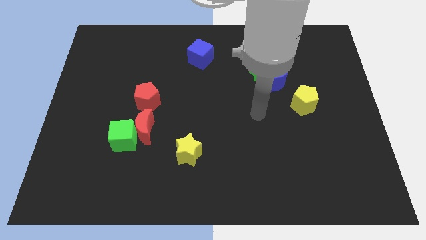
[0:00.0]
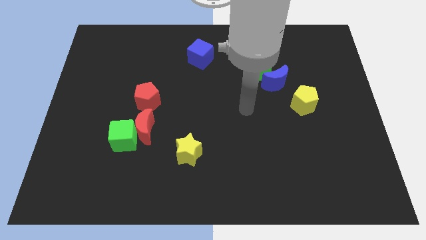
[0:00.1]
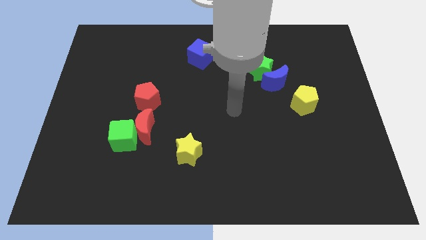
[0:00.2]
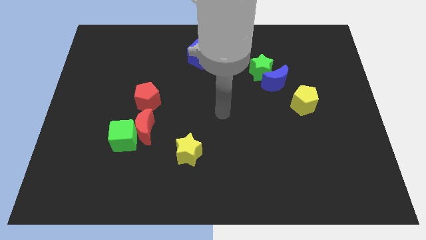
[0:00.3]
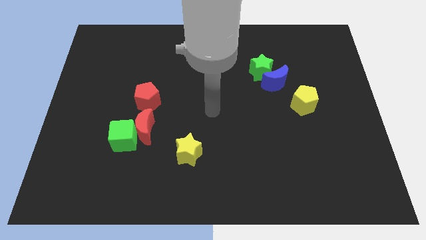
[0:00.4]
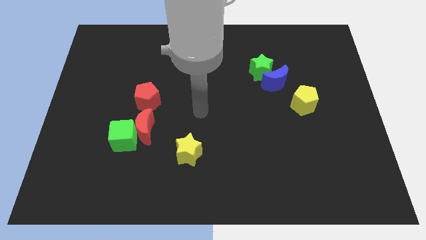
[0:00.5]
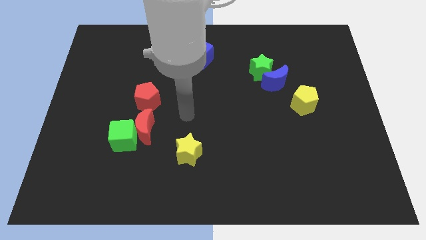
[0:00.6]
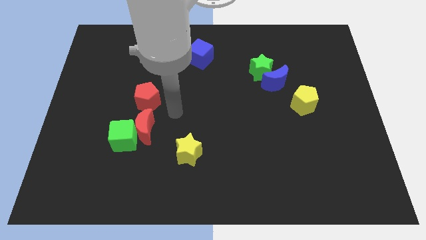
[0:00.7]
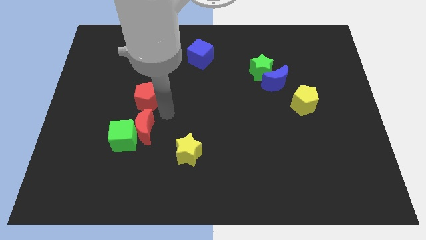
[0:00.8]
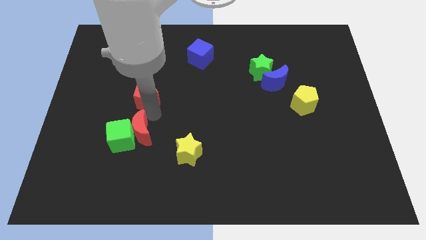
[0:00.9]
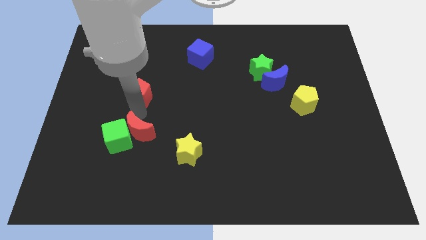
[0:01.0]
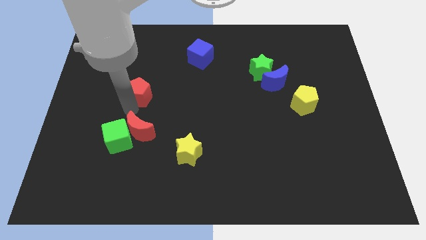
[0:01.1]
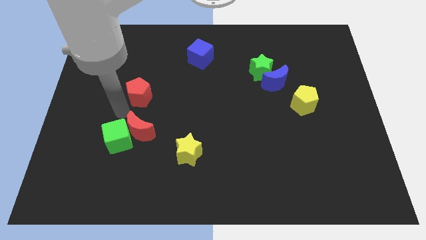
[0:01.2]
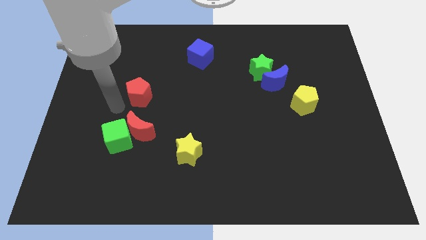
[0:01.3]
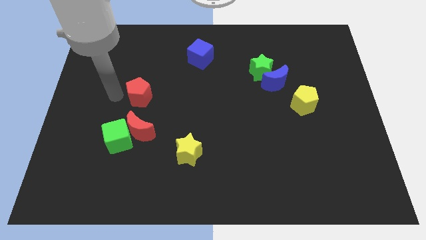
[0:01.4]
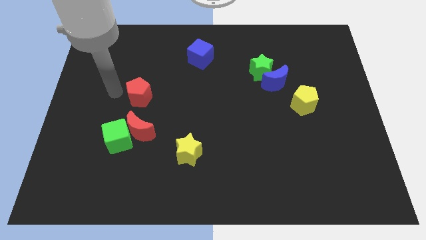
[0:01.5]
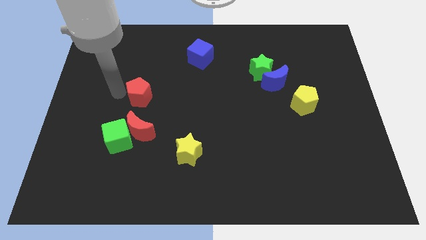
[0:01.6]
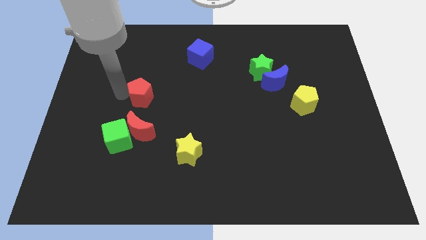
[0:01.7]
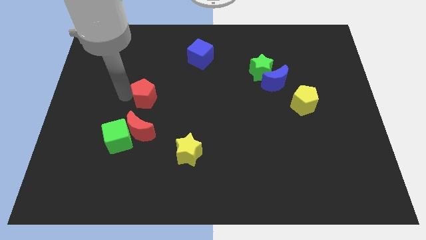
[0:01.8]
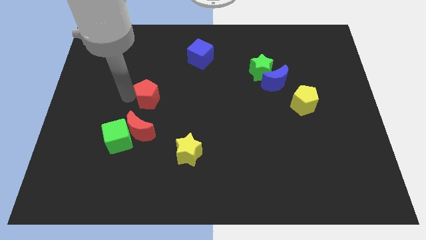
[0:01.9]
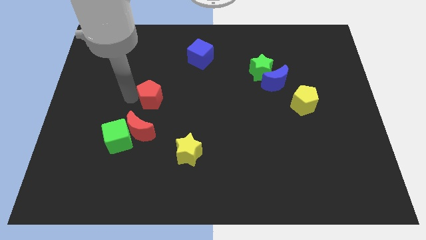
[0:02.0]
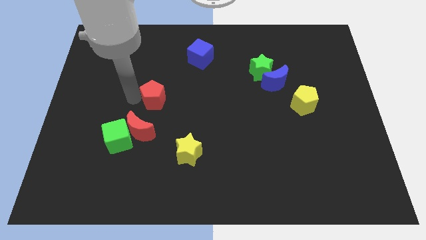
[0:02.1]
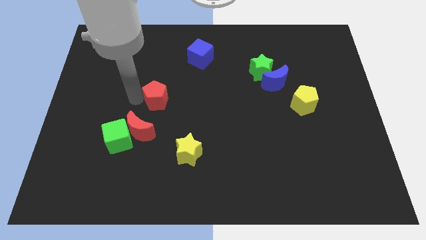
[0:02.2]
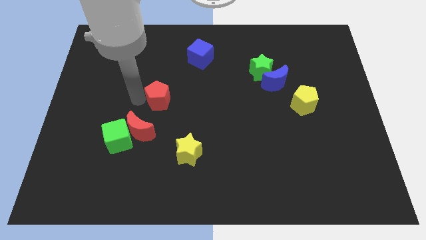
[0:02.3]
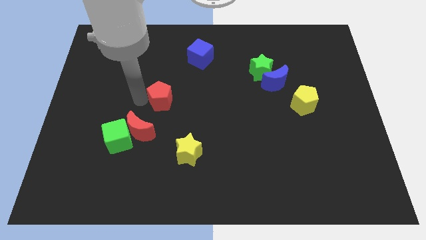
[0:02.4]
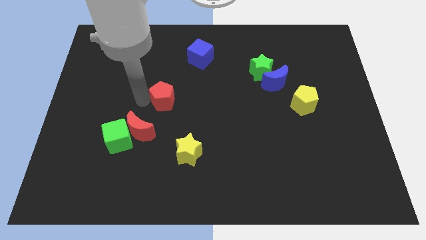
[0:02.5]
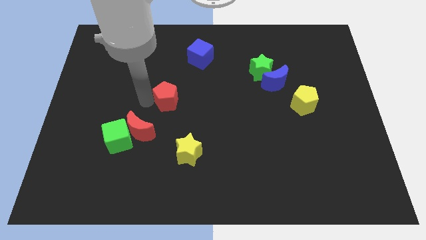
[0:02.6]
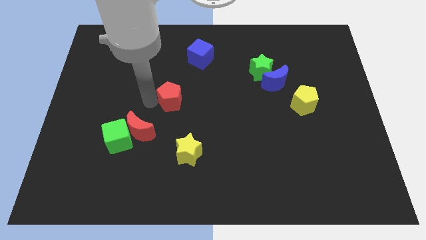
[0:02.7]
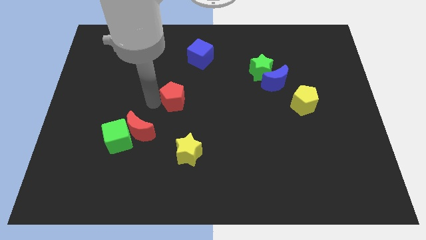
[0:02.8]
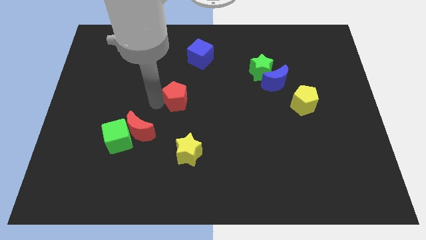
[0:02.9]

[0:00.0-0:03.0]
slightly push the red pentagon to the right

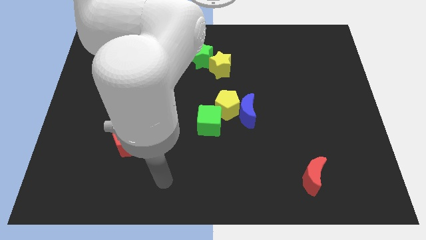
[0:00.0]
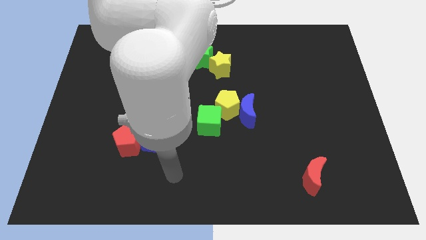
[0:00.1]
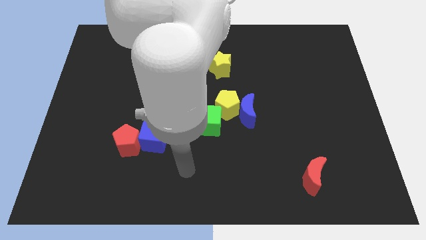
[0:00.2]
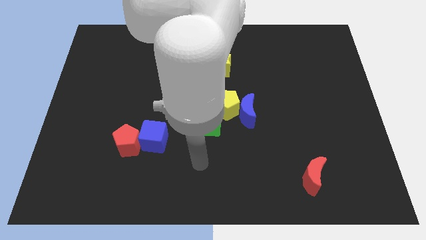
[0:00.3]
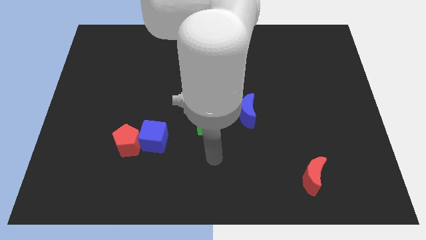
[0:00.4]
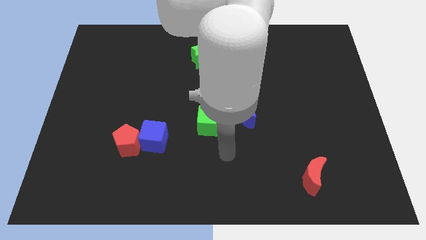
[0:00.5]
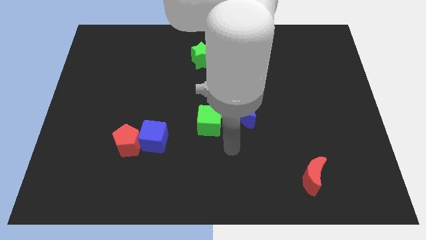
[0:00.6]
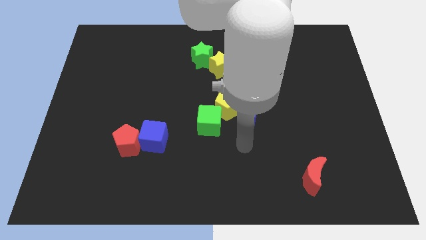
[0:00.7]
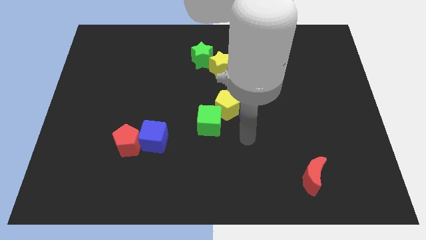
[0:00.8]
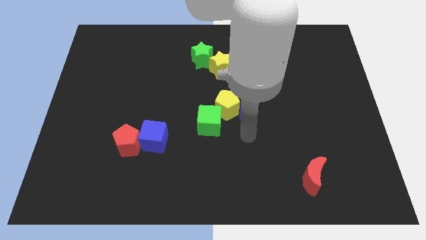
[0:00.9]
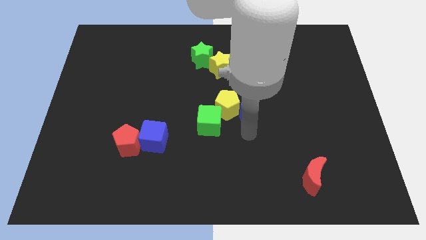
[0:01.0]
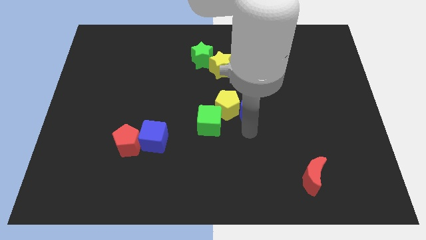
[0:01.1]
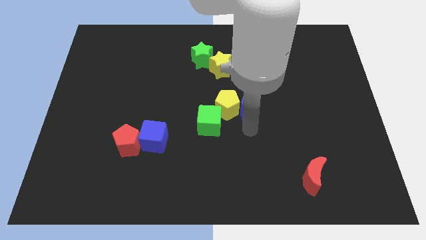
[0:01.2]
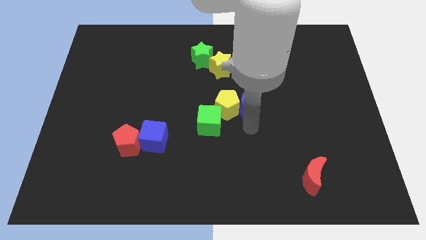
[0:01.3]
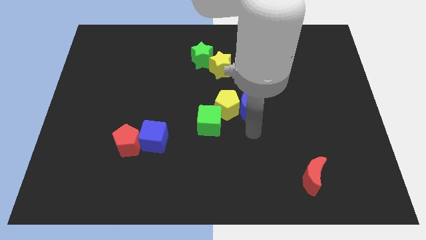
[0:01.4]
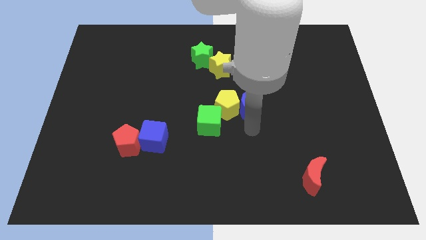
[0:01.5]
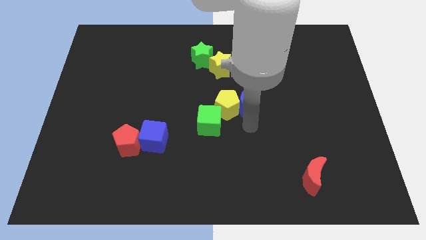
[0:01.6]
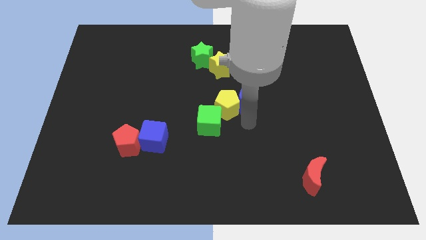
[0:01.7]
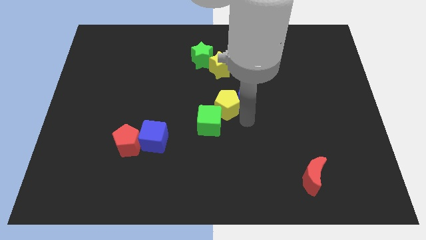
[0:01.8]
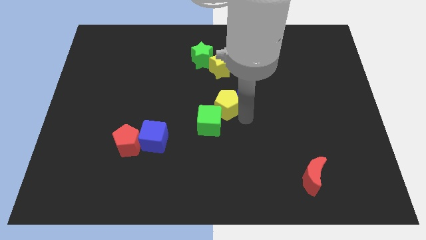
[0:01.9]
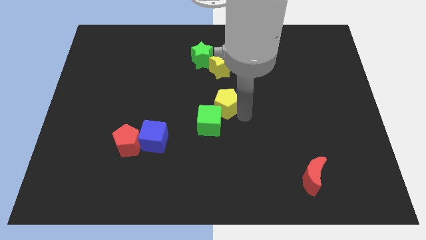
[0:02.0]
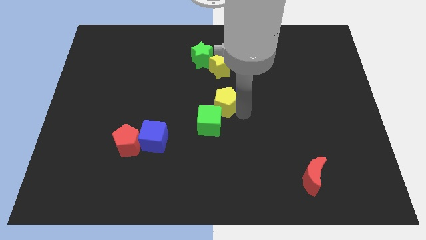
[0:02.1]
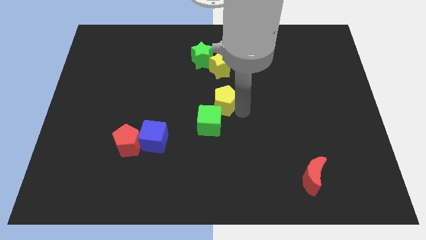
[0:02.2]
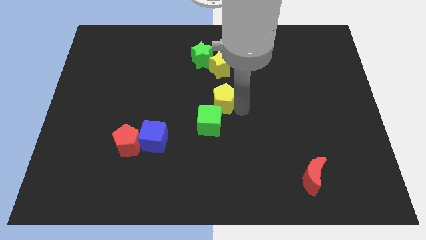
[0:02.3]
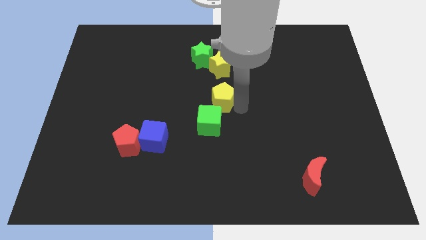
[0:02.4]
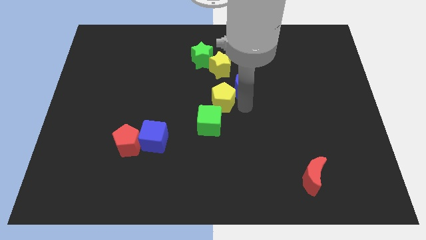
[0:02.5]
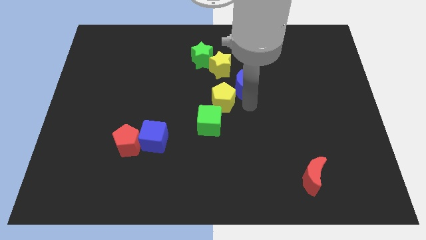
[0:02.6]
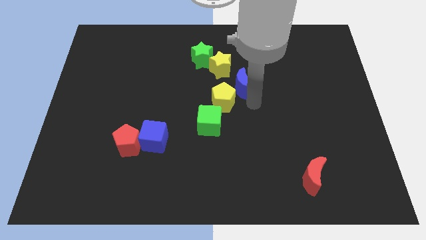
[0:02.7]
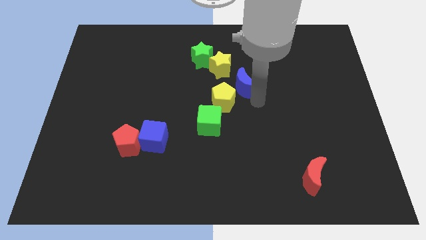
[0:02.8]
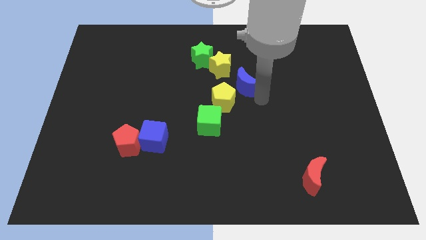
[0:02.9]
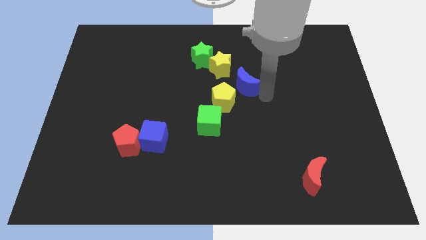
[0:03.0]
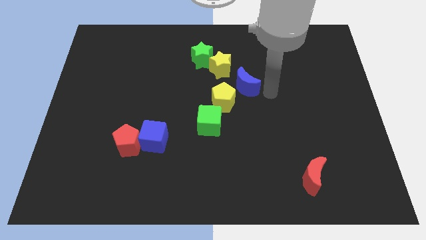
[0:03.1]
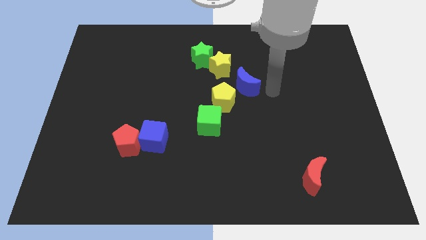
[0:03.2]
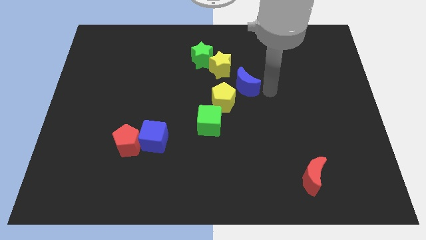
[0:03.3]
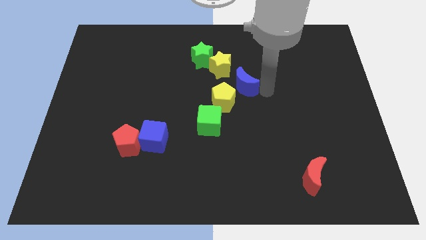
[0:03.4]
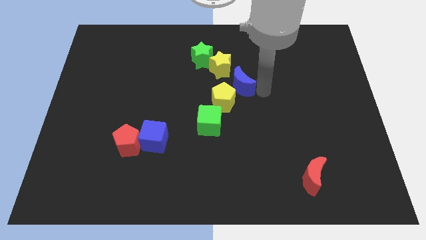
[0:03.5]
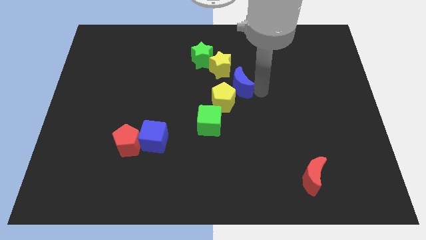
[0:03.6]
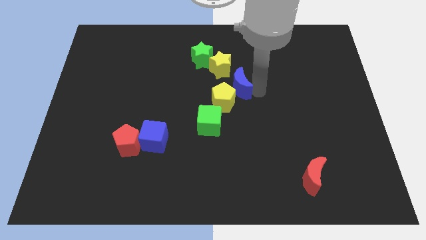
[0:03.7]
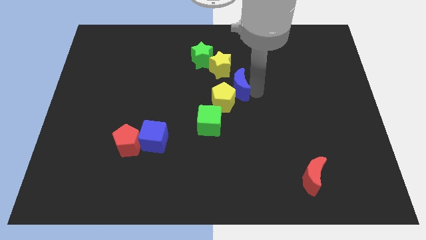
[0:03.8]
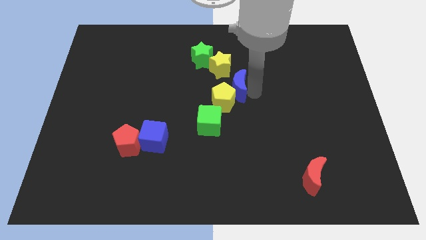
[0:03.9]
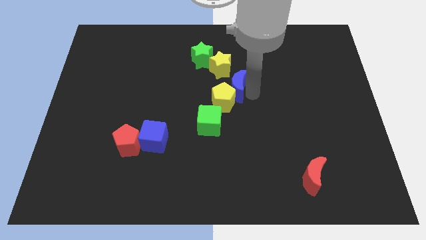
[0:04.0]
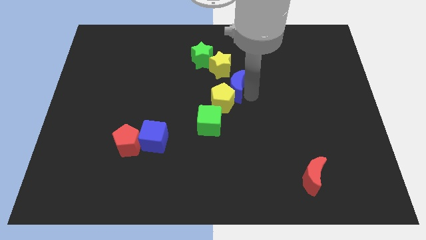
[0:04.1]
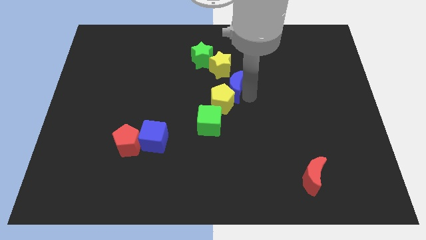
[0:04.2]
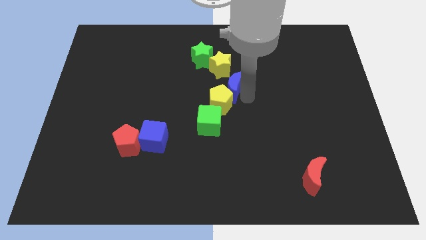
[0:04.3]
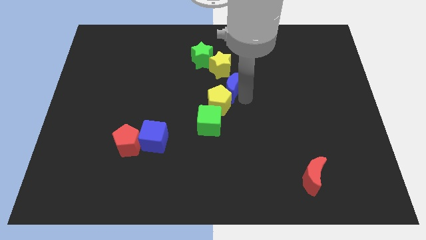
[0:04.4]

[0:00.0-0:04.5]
slide the blue moon somewhat up and left diagonally

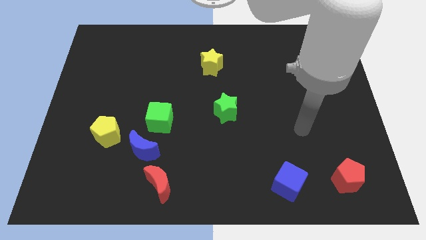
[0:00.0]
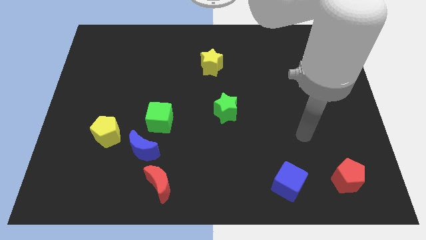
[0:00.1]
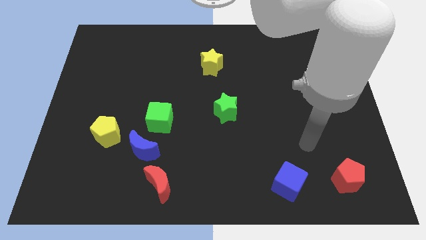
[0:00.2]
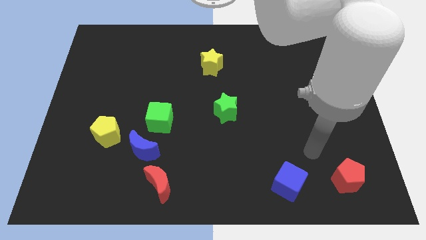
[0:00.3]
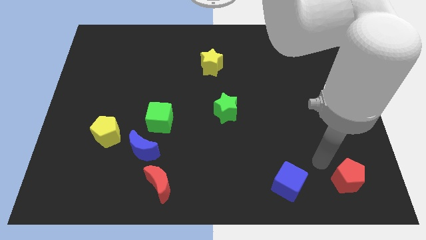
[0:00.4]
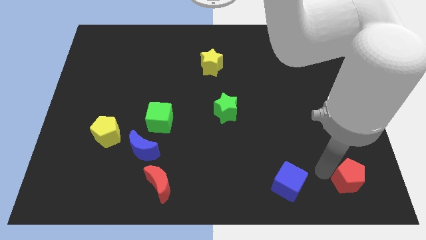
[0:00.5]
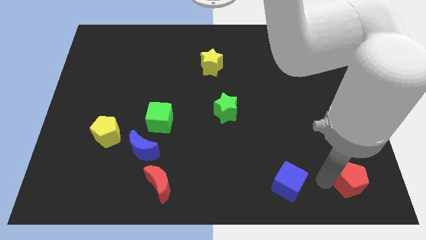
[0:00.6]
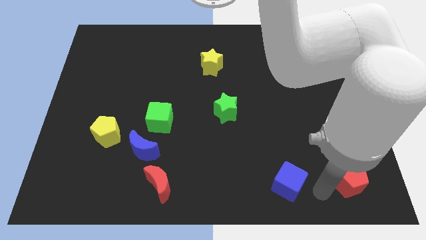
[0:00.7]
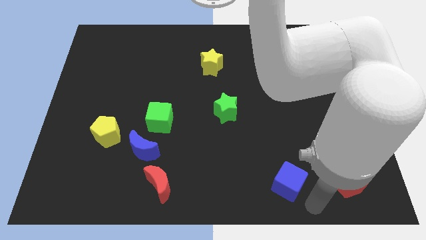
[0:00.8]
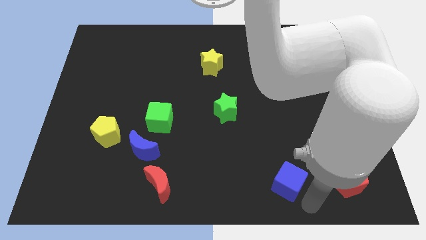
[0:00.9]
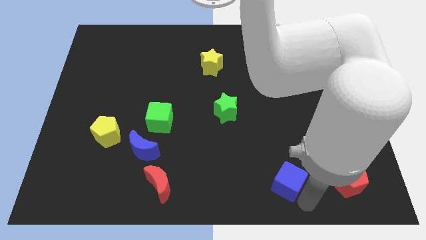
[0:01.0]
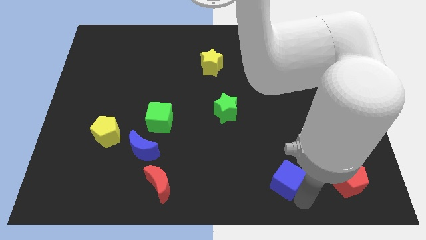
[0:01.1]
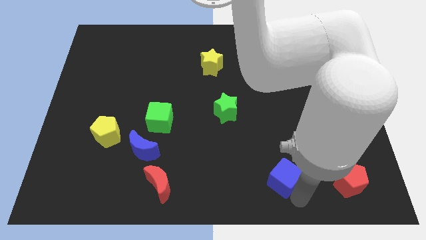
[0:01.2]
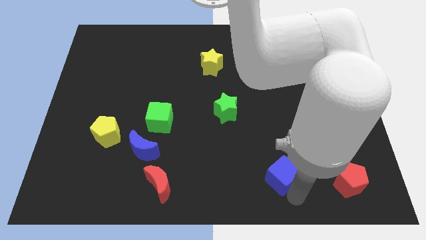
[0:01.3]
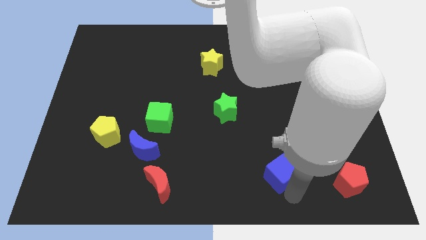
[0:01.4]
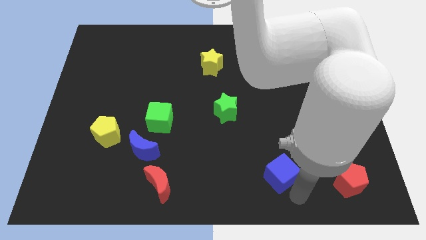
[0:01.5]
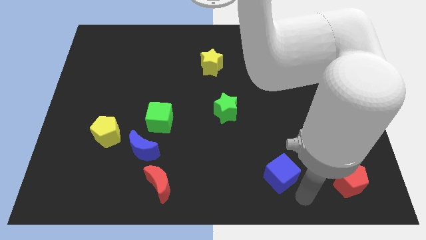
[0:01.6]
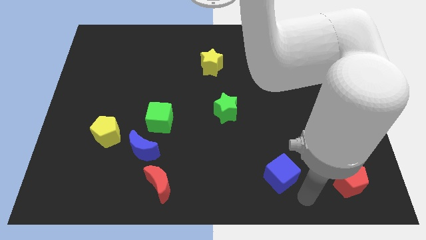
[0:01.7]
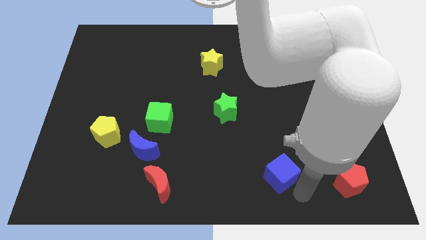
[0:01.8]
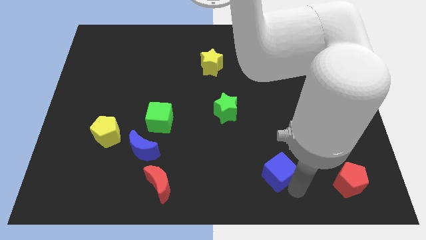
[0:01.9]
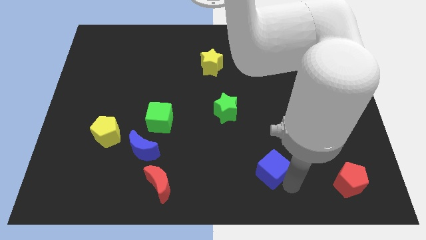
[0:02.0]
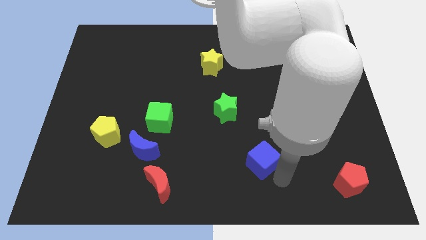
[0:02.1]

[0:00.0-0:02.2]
move the blue cube a bit upwards and left
